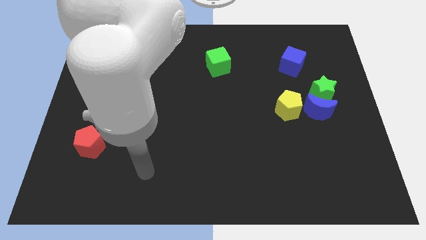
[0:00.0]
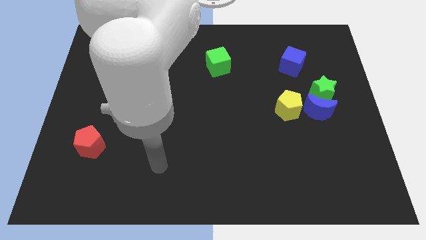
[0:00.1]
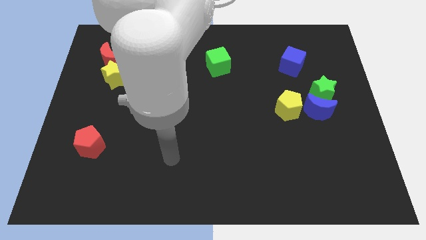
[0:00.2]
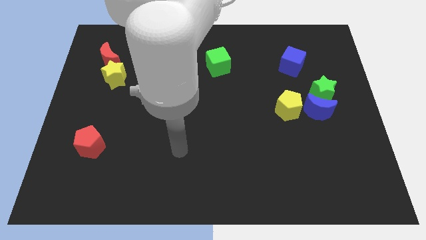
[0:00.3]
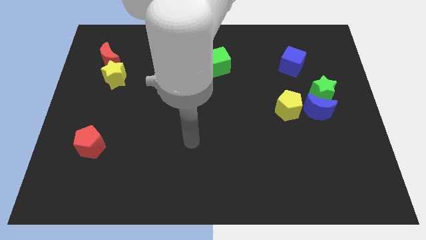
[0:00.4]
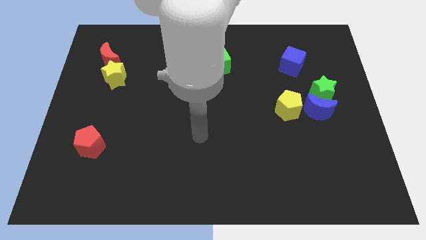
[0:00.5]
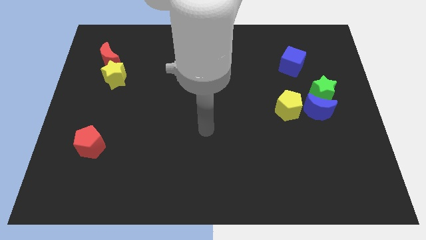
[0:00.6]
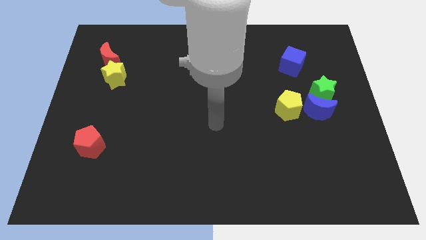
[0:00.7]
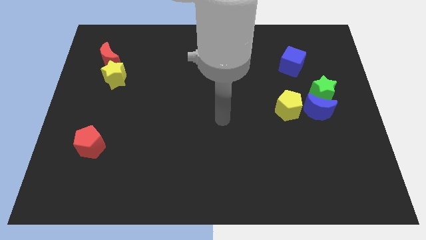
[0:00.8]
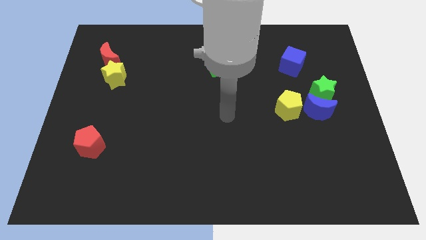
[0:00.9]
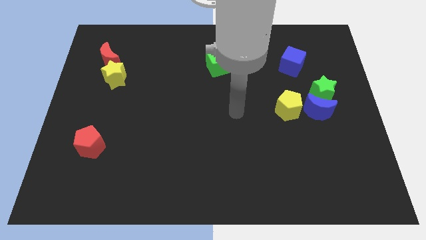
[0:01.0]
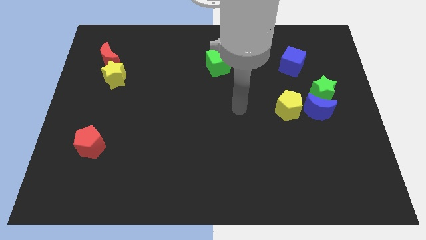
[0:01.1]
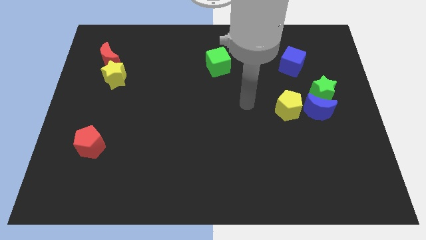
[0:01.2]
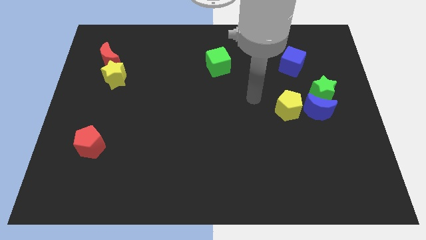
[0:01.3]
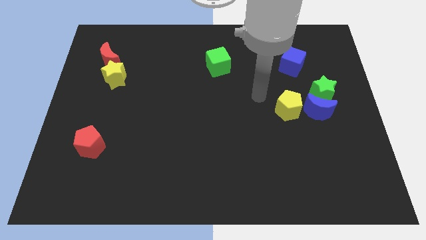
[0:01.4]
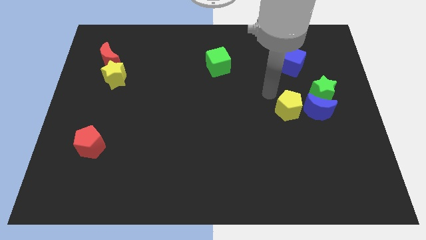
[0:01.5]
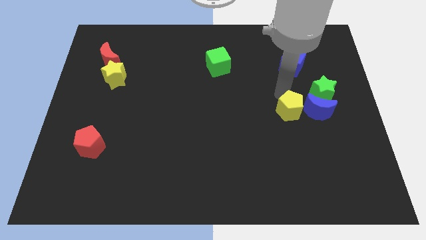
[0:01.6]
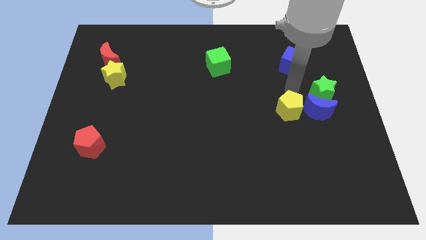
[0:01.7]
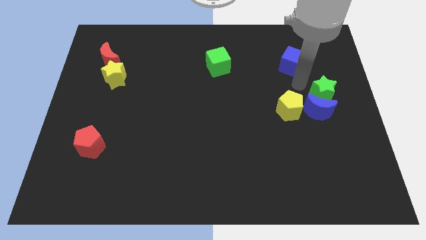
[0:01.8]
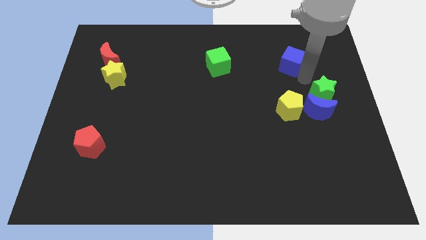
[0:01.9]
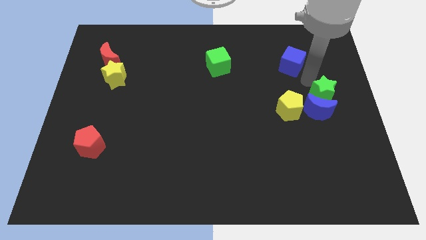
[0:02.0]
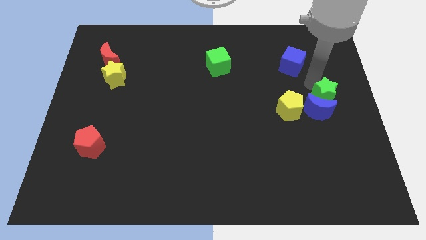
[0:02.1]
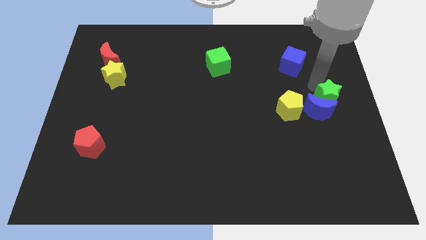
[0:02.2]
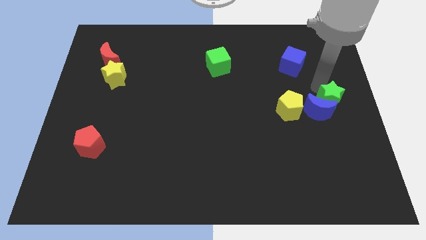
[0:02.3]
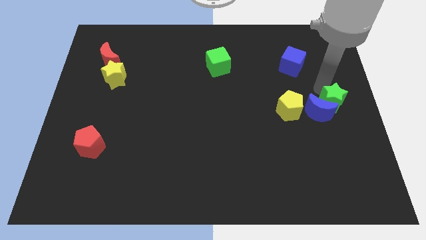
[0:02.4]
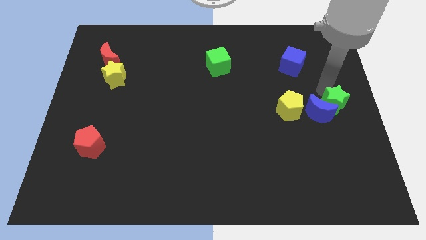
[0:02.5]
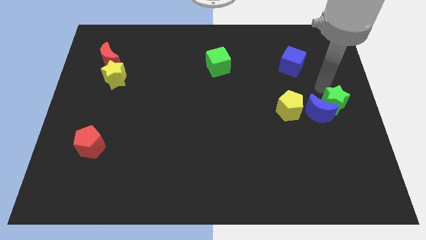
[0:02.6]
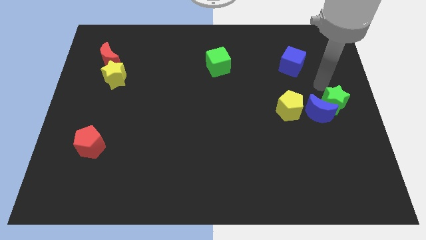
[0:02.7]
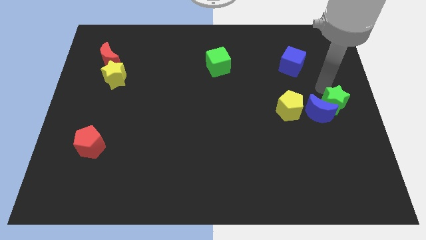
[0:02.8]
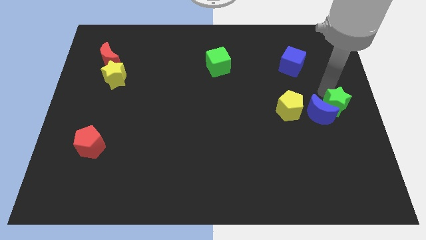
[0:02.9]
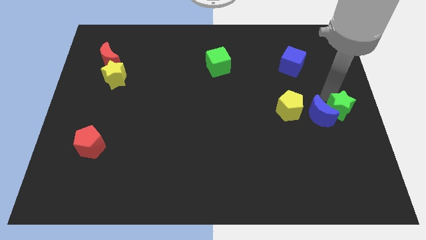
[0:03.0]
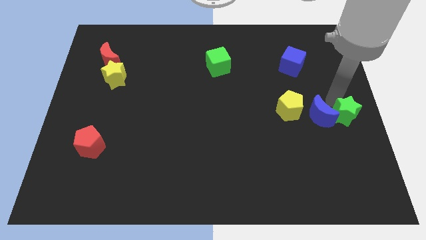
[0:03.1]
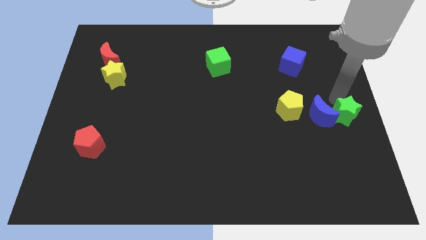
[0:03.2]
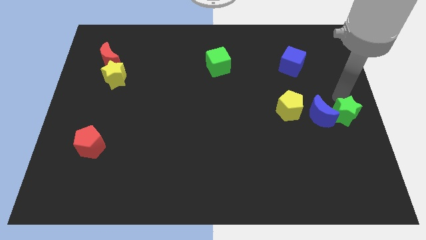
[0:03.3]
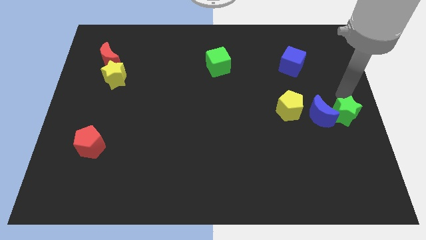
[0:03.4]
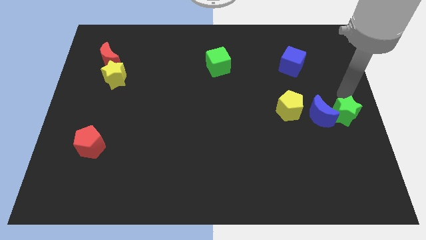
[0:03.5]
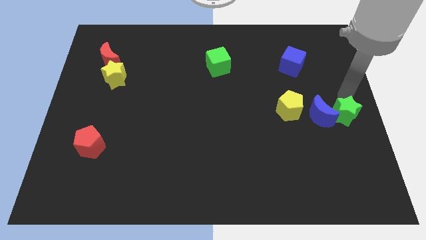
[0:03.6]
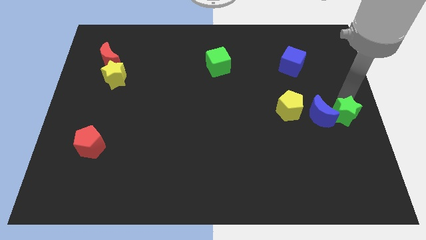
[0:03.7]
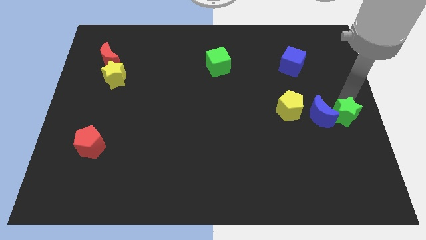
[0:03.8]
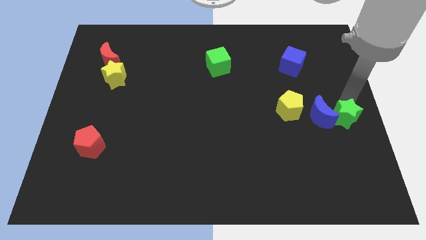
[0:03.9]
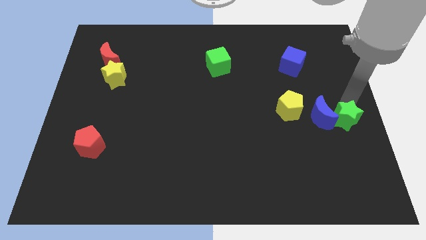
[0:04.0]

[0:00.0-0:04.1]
push the green star a little bit down

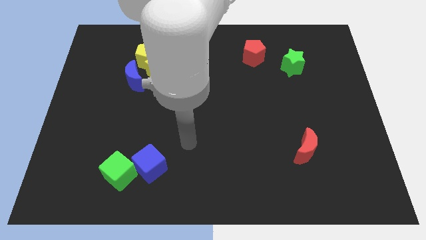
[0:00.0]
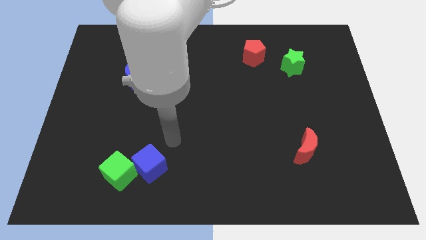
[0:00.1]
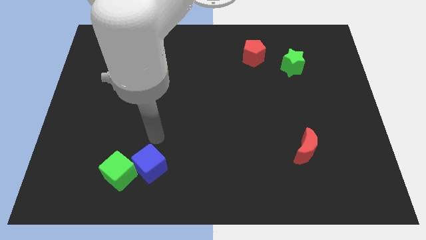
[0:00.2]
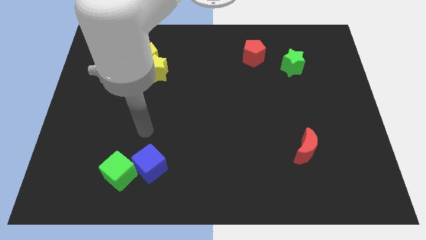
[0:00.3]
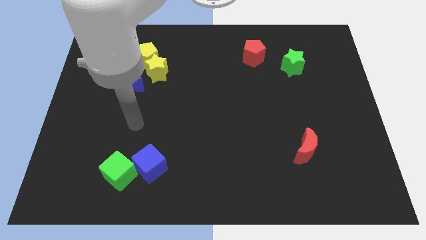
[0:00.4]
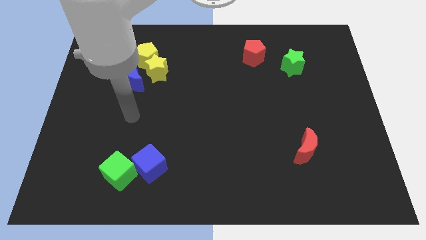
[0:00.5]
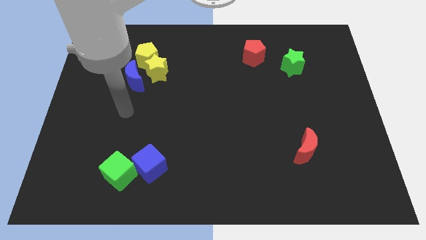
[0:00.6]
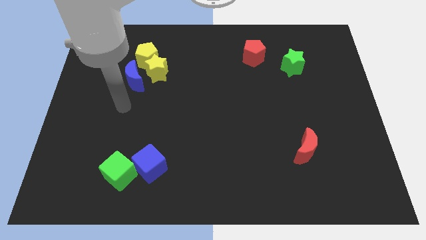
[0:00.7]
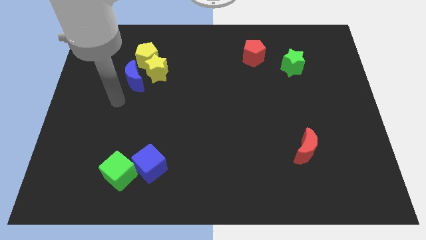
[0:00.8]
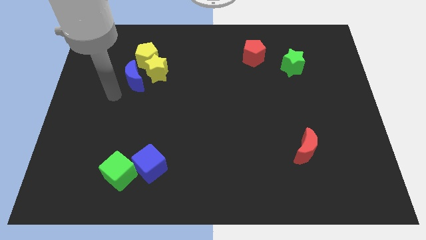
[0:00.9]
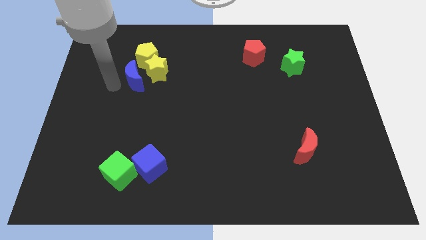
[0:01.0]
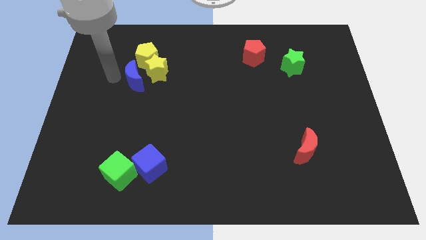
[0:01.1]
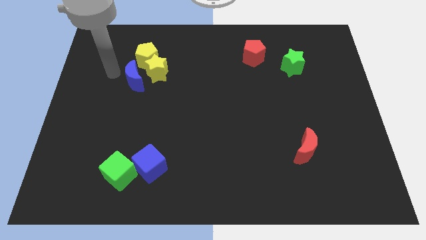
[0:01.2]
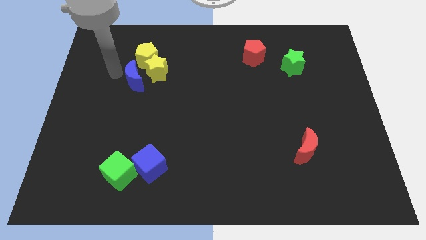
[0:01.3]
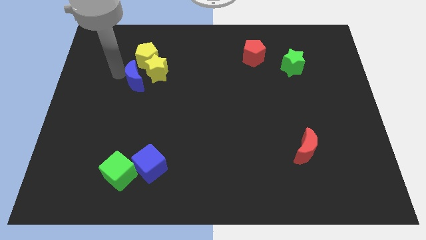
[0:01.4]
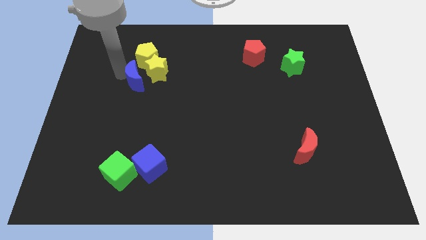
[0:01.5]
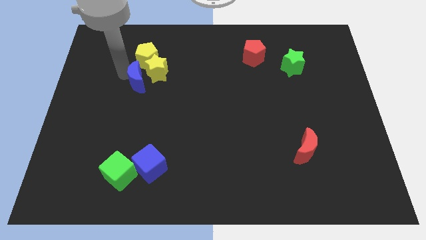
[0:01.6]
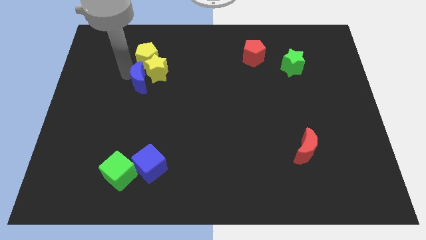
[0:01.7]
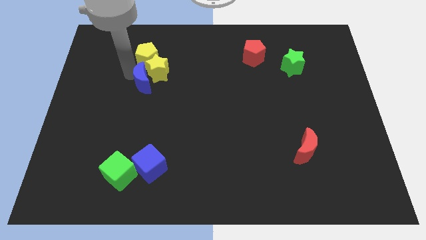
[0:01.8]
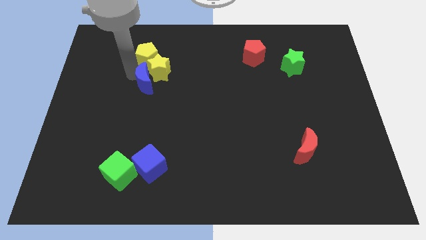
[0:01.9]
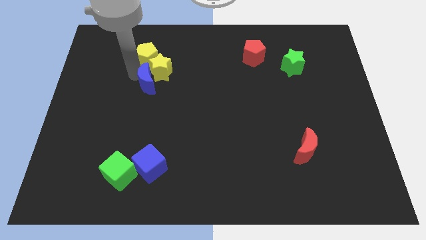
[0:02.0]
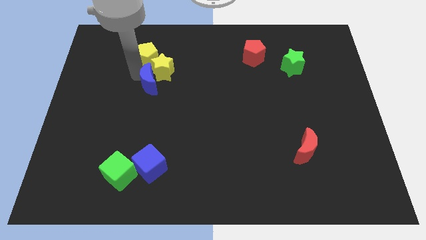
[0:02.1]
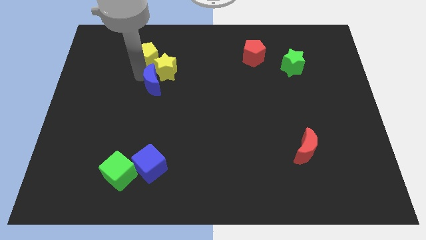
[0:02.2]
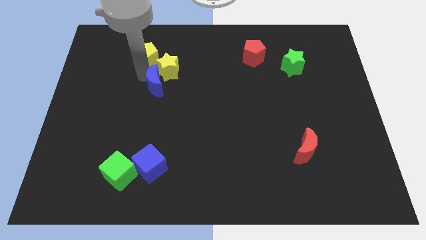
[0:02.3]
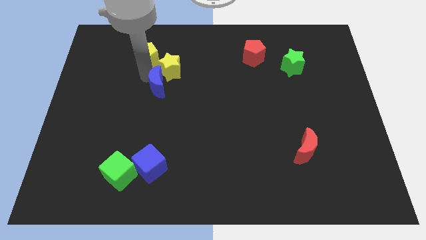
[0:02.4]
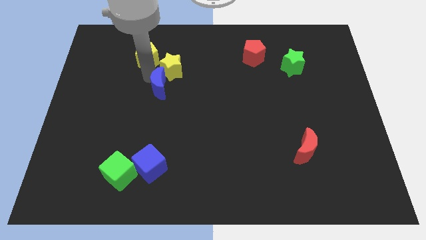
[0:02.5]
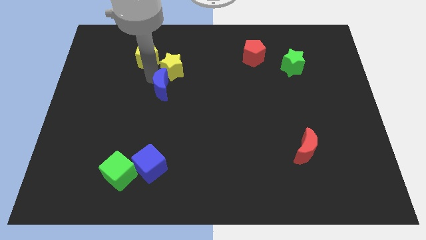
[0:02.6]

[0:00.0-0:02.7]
slightly push the blue moon to the right

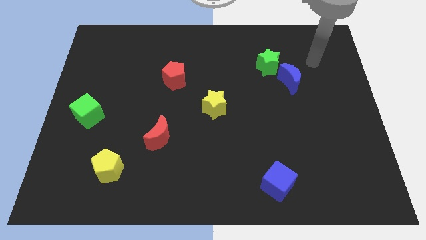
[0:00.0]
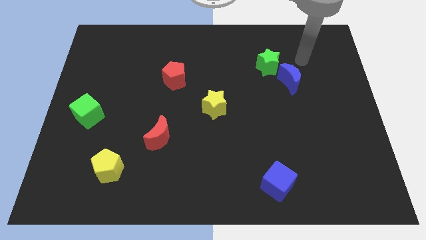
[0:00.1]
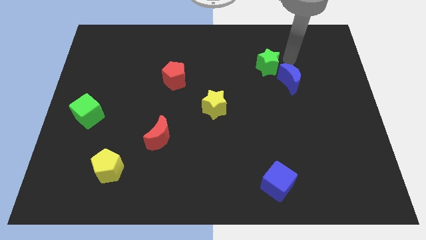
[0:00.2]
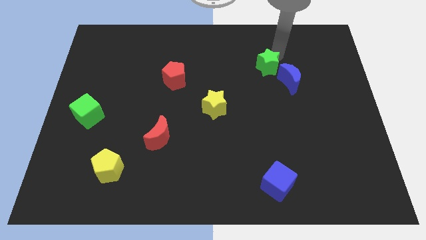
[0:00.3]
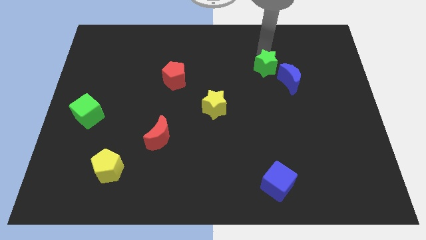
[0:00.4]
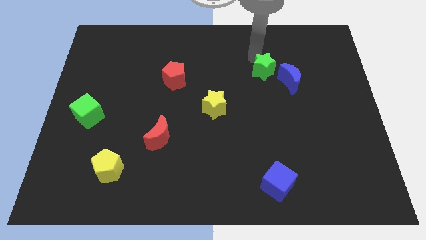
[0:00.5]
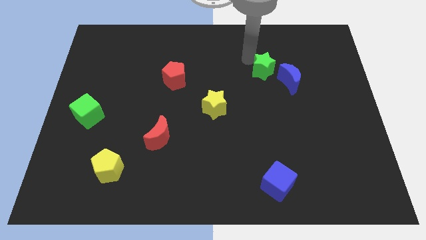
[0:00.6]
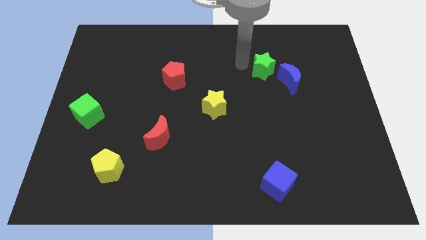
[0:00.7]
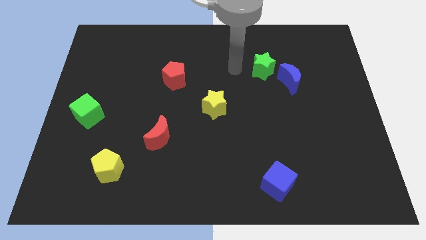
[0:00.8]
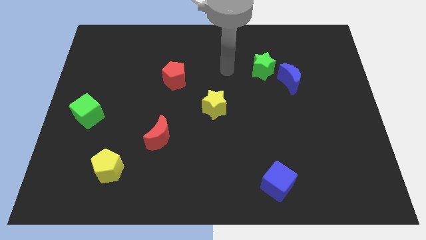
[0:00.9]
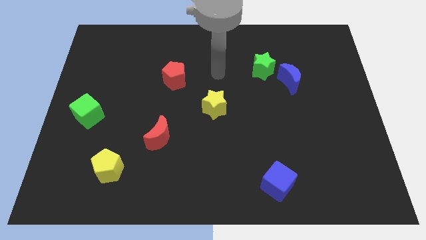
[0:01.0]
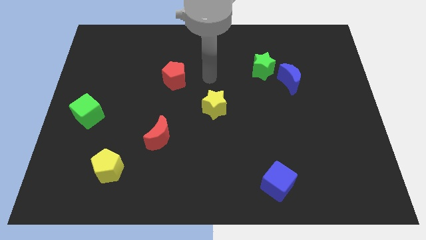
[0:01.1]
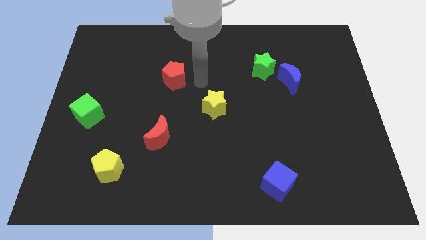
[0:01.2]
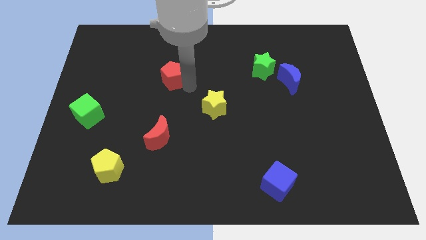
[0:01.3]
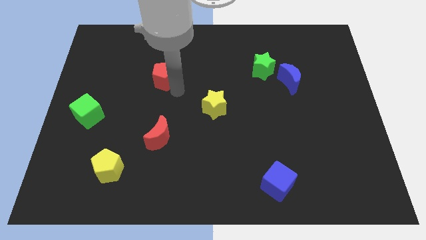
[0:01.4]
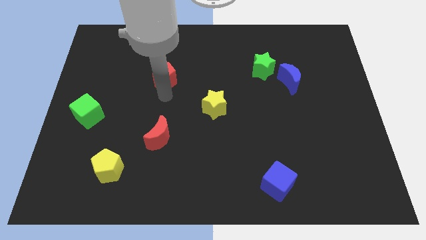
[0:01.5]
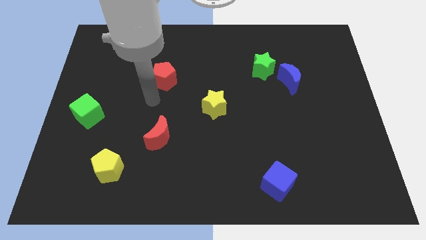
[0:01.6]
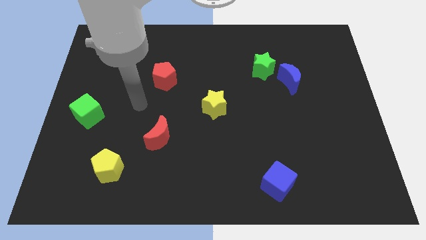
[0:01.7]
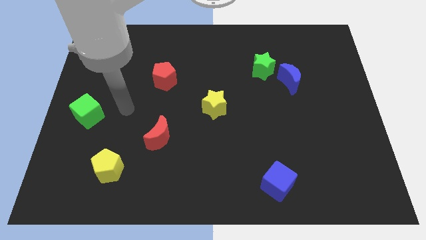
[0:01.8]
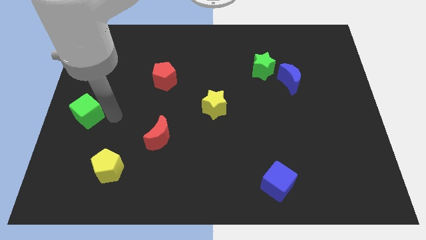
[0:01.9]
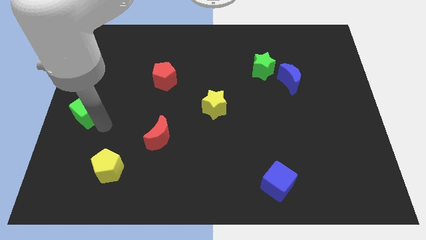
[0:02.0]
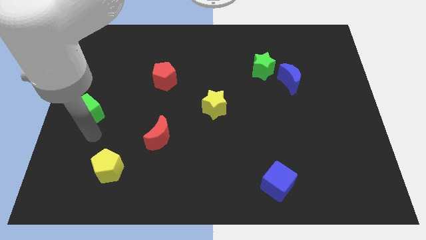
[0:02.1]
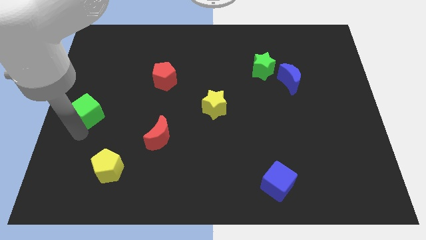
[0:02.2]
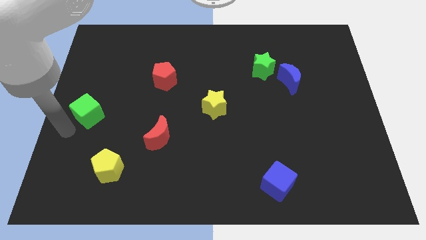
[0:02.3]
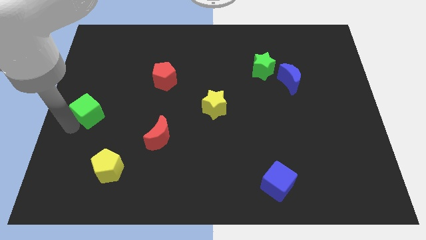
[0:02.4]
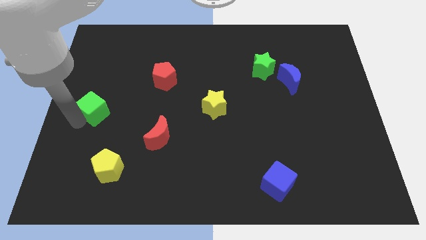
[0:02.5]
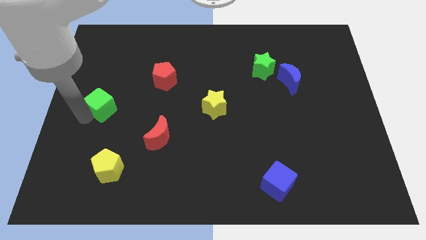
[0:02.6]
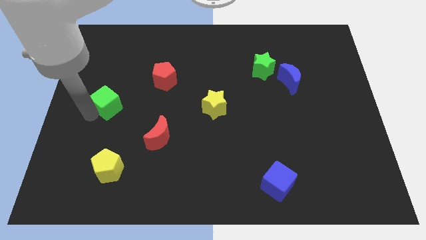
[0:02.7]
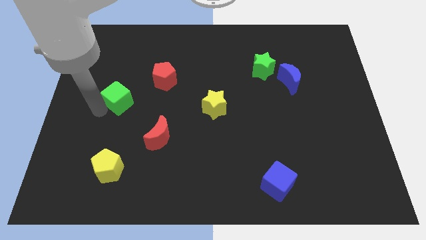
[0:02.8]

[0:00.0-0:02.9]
slide the green cube diagonally upwards and right a little
